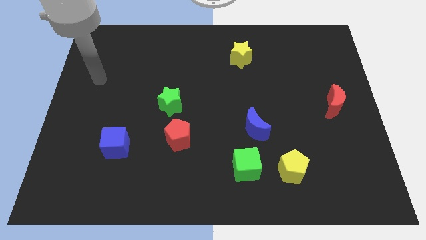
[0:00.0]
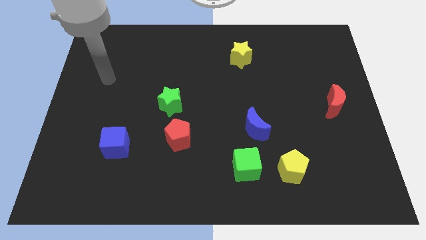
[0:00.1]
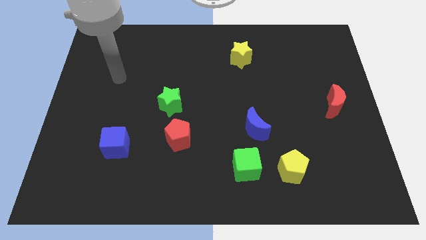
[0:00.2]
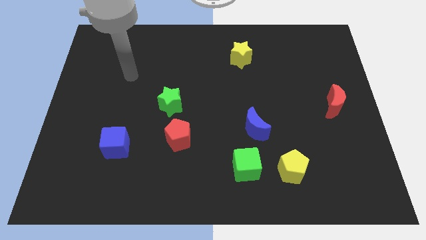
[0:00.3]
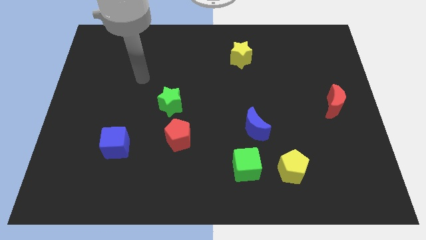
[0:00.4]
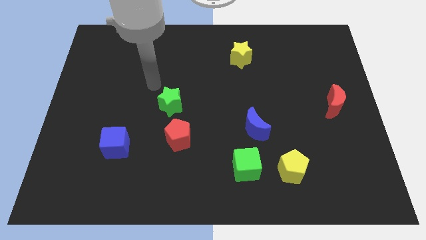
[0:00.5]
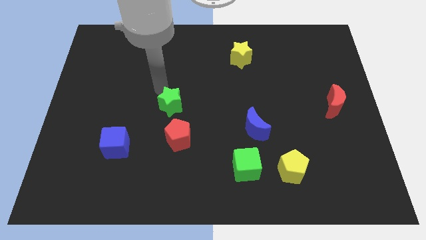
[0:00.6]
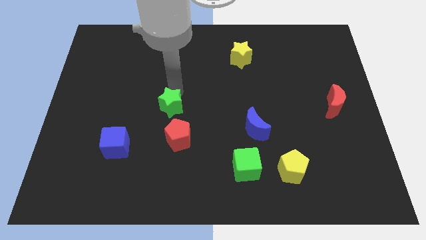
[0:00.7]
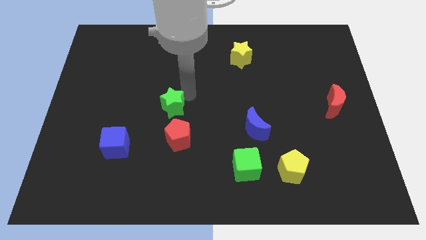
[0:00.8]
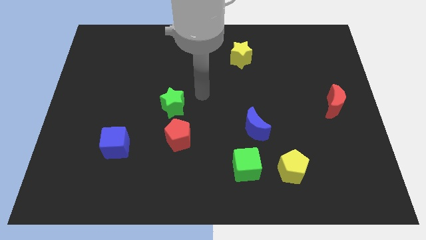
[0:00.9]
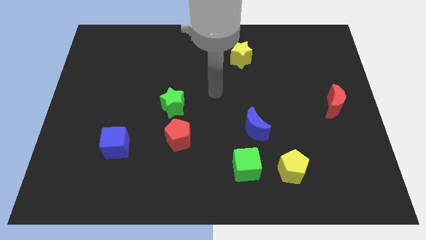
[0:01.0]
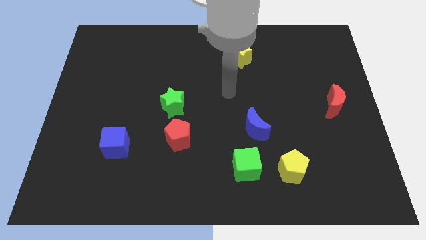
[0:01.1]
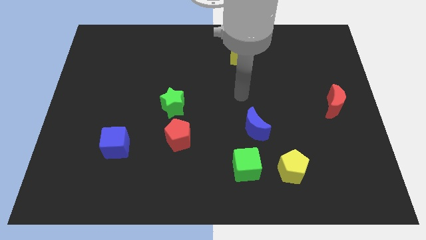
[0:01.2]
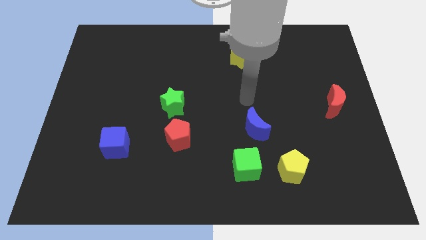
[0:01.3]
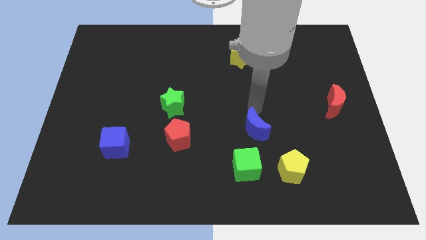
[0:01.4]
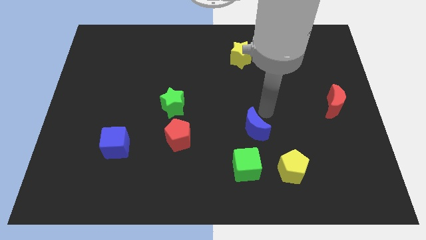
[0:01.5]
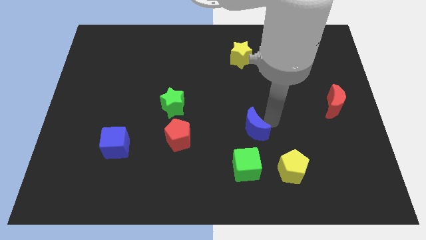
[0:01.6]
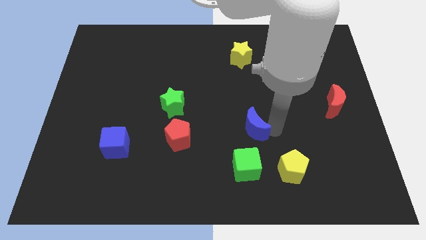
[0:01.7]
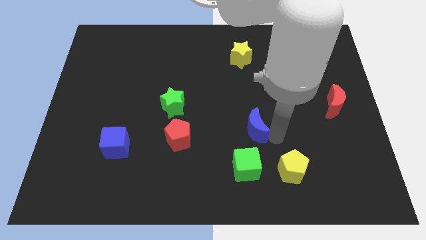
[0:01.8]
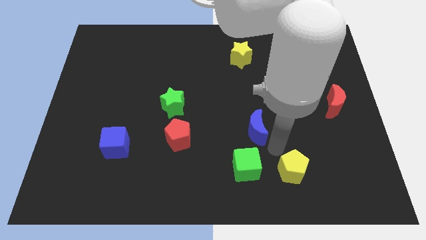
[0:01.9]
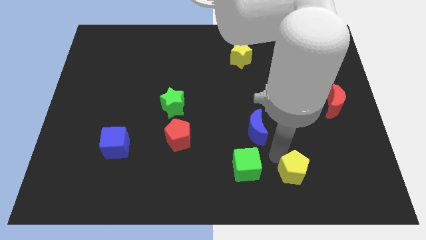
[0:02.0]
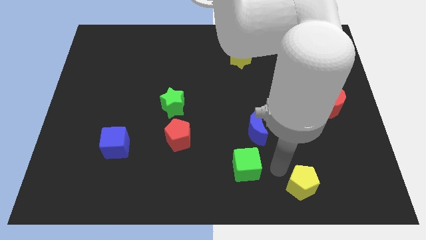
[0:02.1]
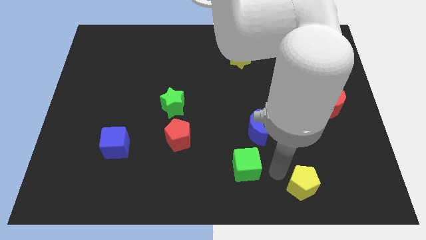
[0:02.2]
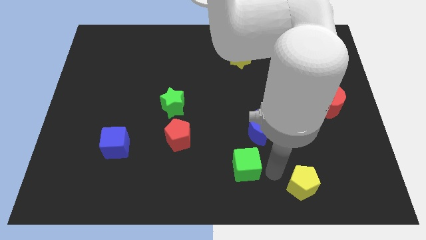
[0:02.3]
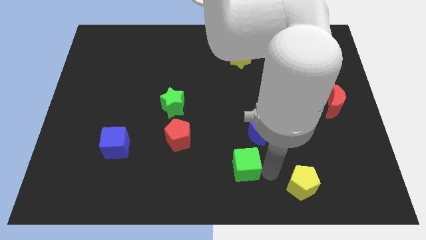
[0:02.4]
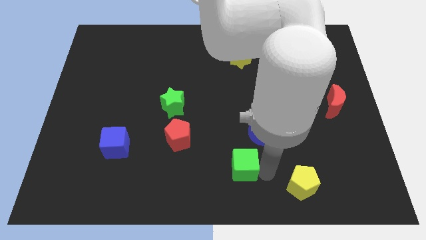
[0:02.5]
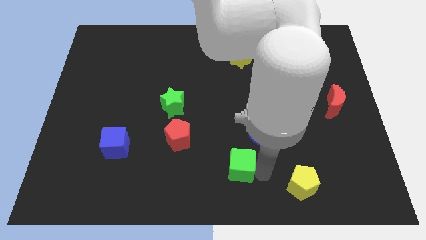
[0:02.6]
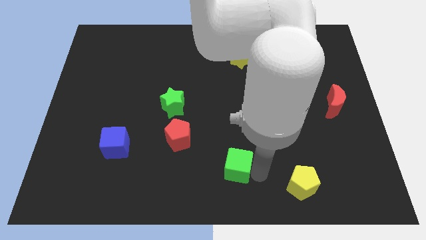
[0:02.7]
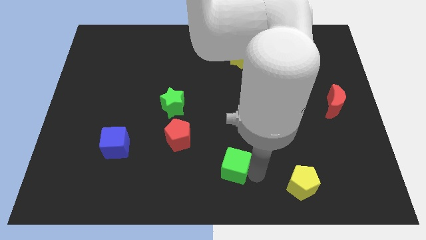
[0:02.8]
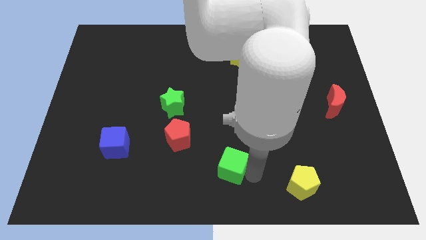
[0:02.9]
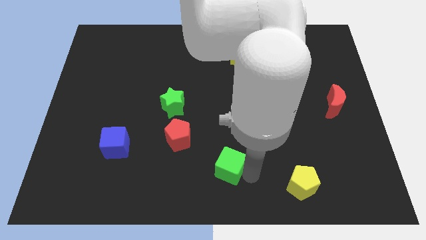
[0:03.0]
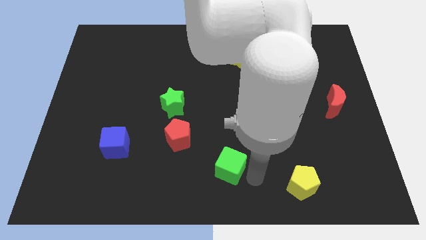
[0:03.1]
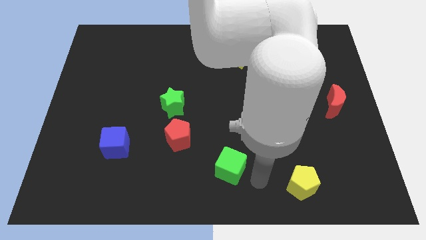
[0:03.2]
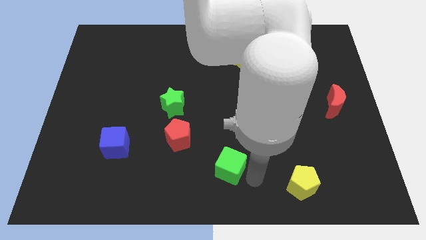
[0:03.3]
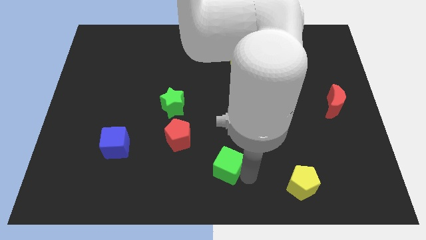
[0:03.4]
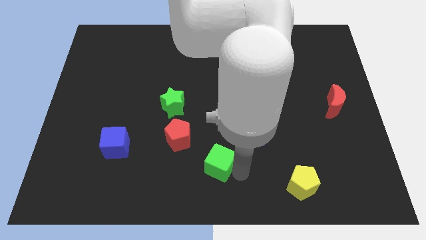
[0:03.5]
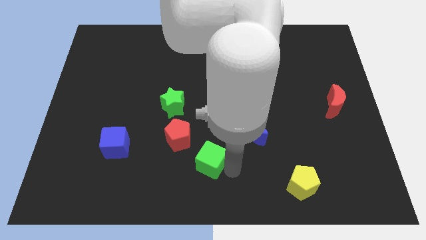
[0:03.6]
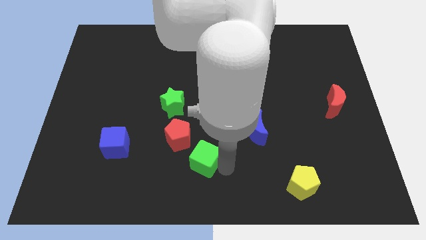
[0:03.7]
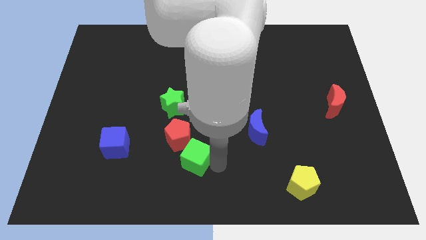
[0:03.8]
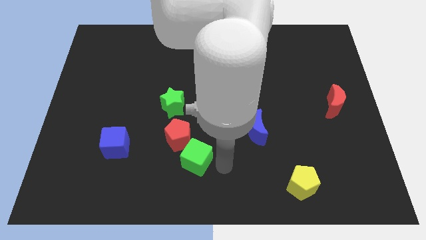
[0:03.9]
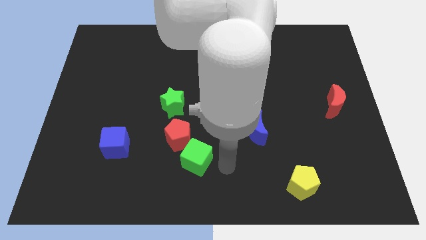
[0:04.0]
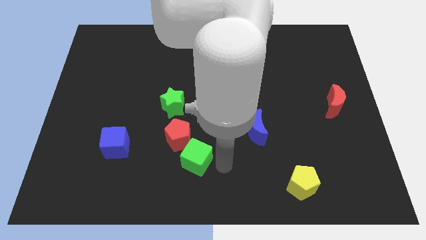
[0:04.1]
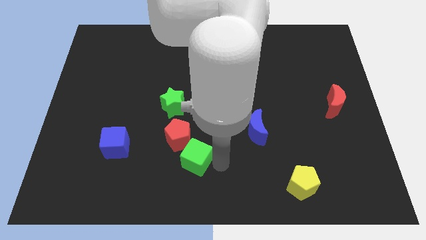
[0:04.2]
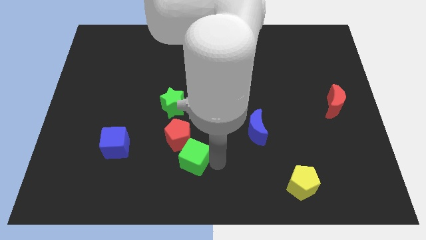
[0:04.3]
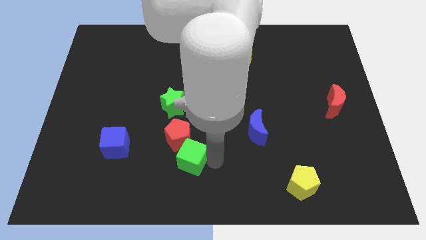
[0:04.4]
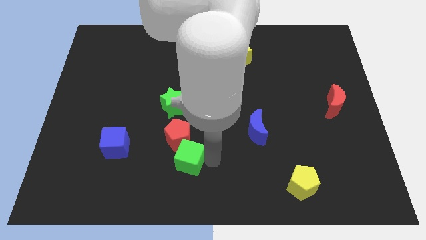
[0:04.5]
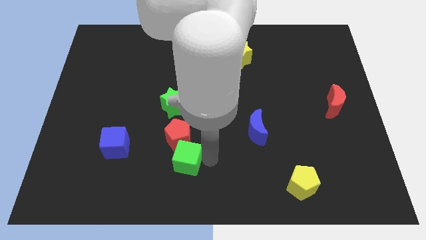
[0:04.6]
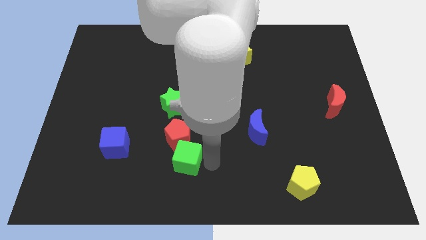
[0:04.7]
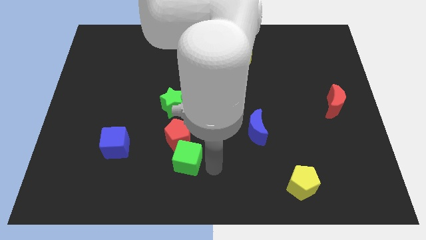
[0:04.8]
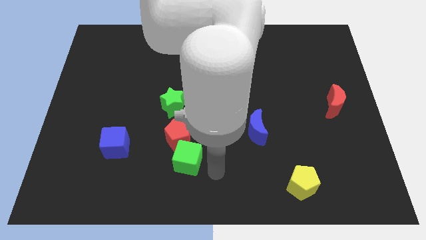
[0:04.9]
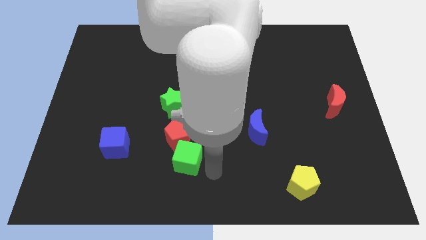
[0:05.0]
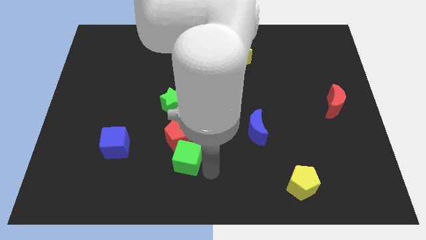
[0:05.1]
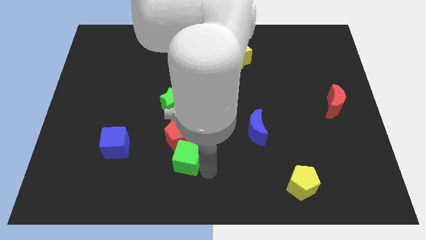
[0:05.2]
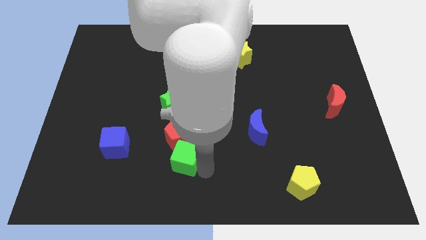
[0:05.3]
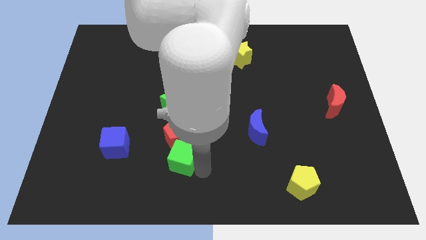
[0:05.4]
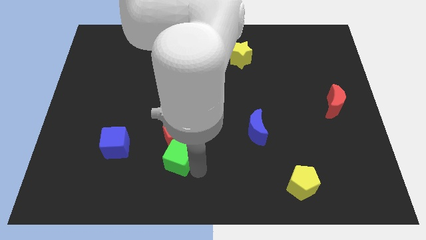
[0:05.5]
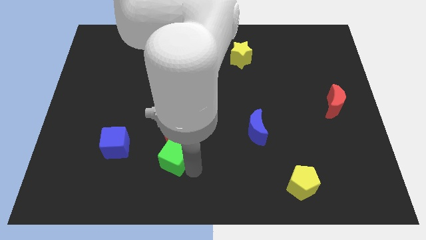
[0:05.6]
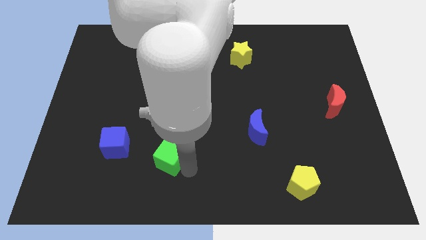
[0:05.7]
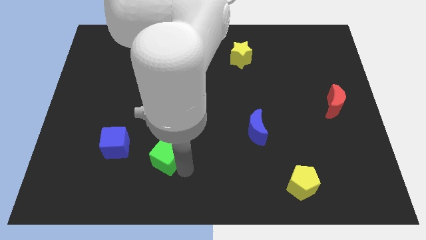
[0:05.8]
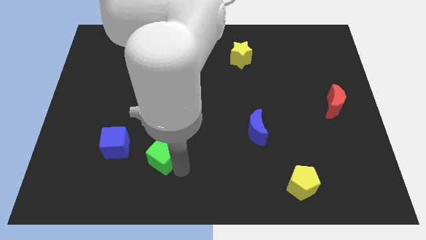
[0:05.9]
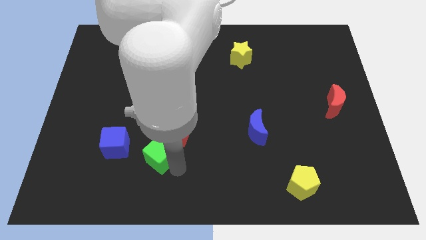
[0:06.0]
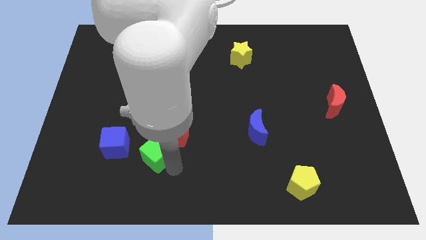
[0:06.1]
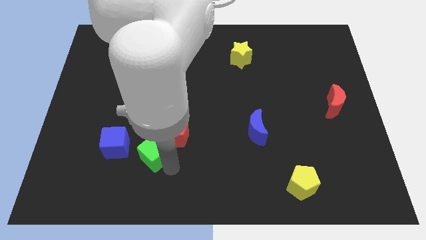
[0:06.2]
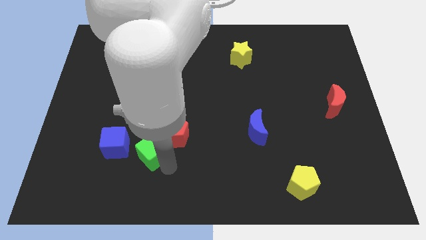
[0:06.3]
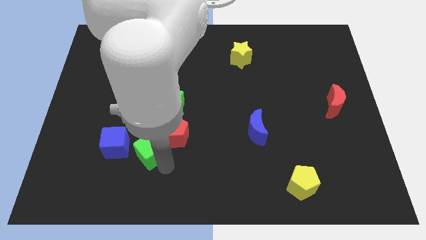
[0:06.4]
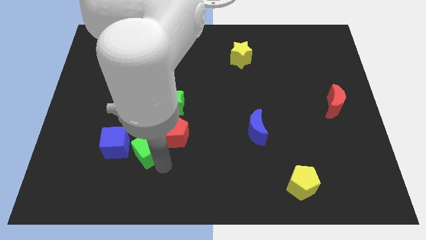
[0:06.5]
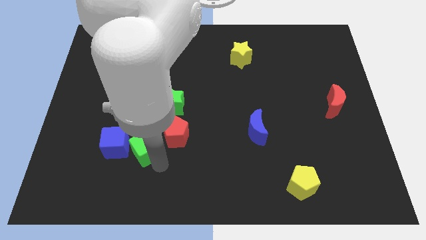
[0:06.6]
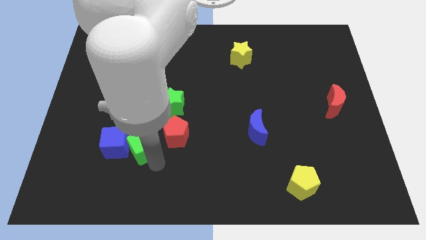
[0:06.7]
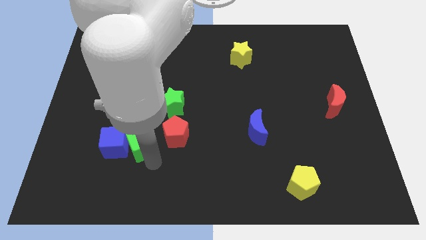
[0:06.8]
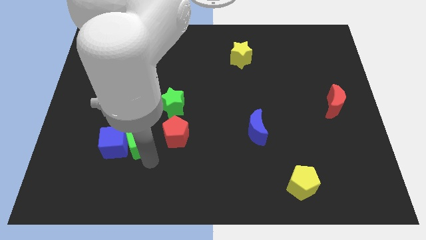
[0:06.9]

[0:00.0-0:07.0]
put the green cube diagonally down and to the left of the green star

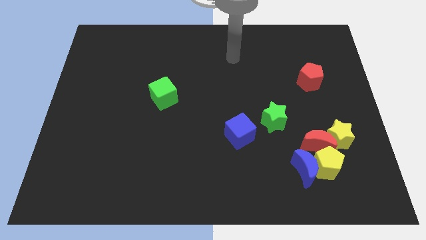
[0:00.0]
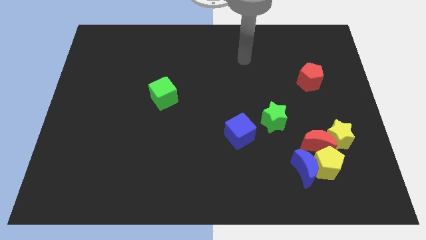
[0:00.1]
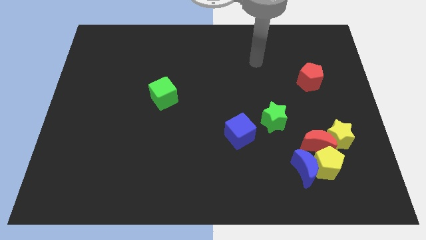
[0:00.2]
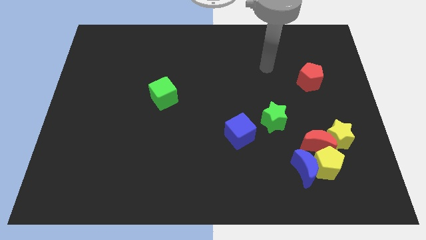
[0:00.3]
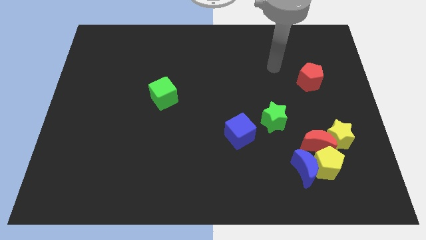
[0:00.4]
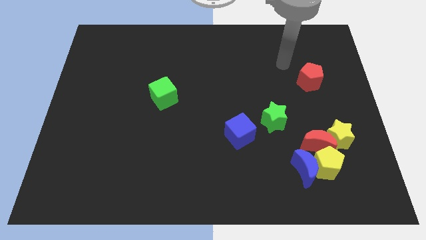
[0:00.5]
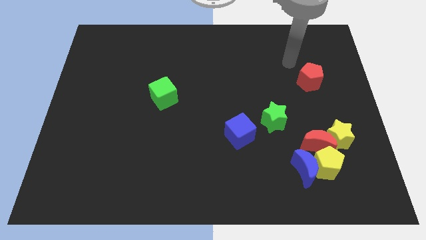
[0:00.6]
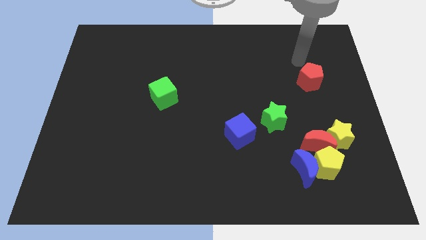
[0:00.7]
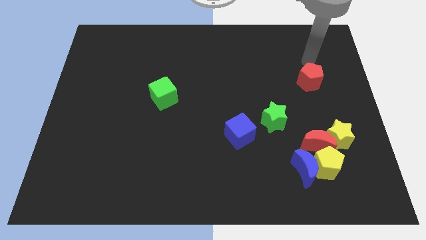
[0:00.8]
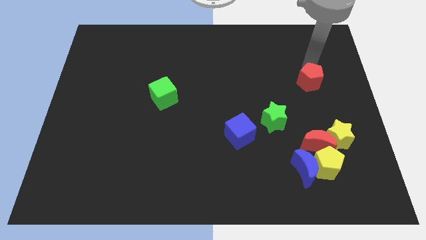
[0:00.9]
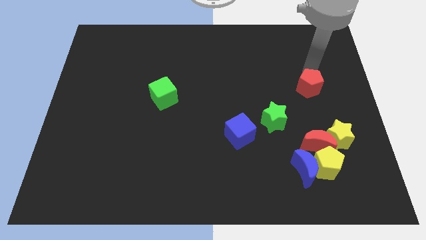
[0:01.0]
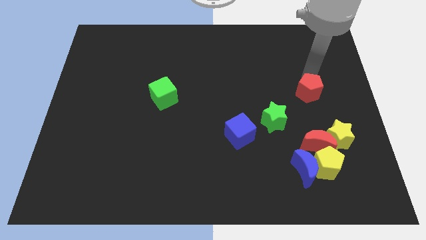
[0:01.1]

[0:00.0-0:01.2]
put the red pentagon above the red moon
